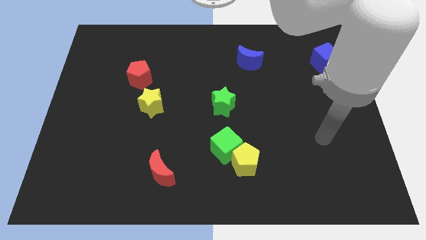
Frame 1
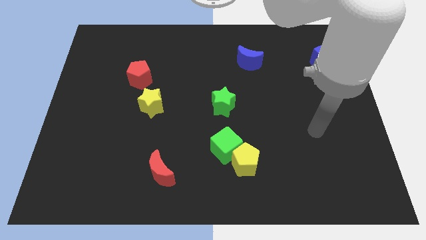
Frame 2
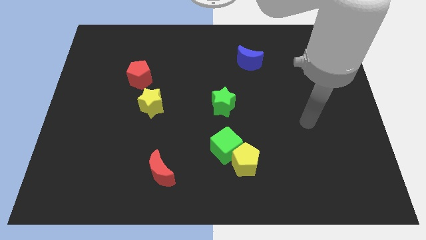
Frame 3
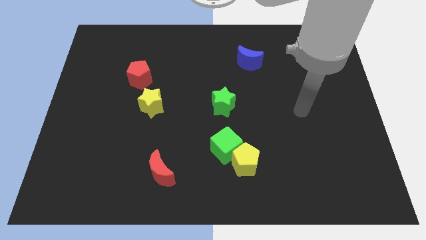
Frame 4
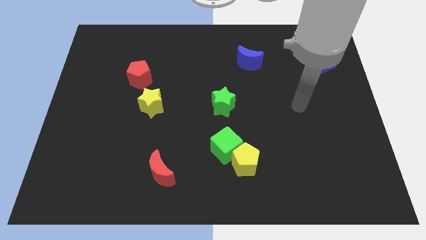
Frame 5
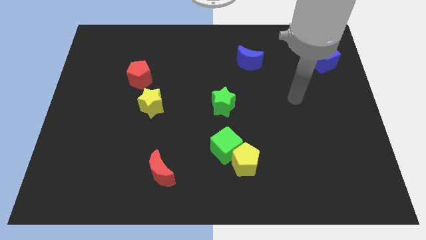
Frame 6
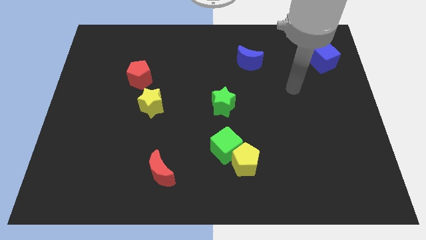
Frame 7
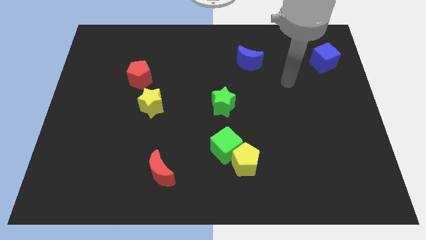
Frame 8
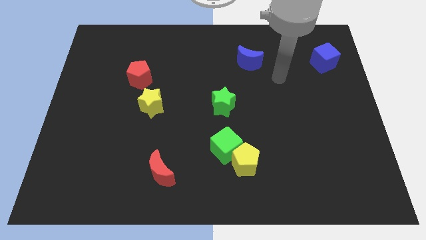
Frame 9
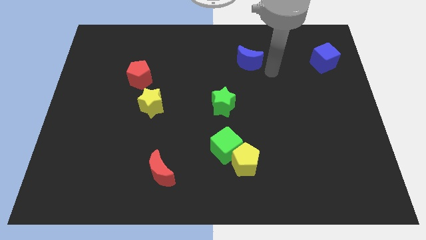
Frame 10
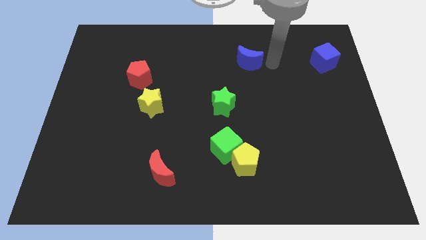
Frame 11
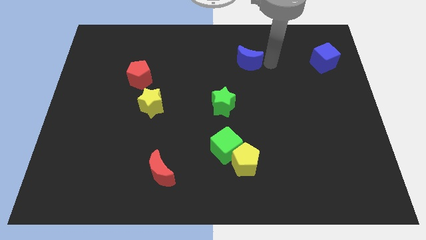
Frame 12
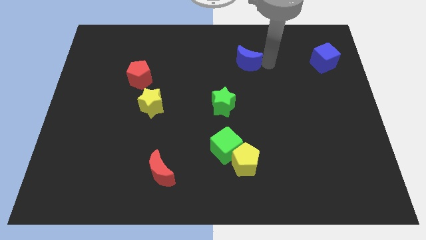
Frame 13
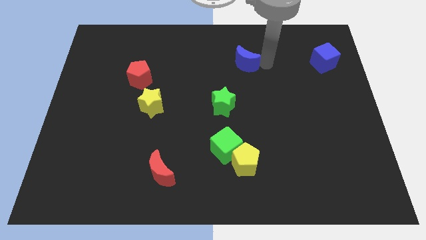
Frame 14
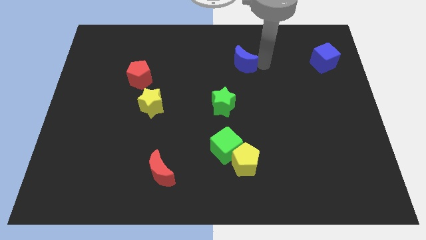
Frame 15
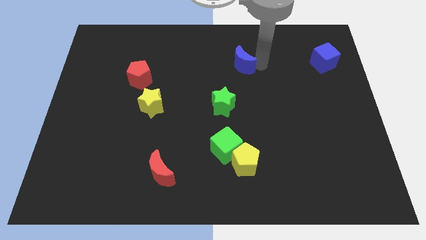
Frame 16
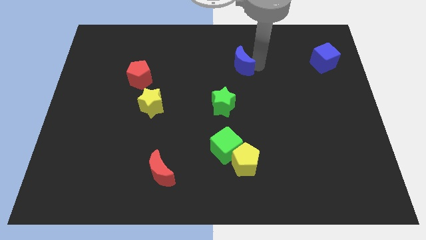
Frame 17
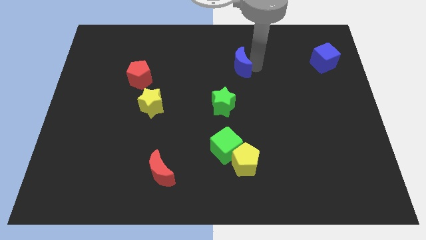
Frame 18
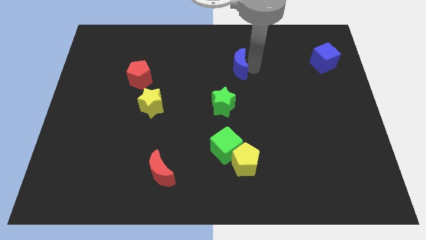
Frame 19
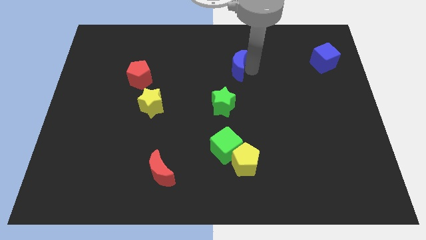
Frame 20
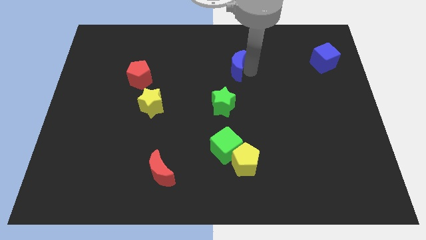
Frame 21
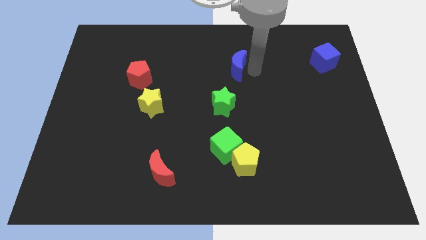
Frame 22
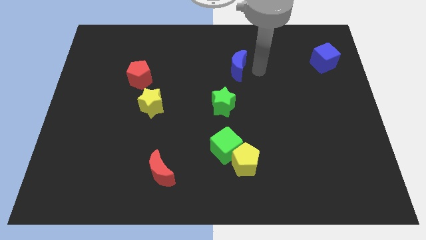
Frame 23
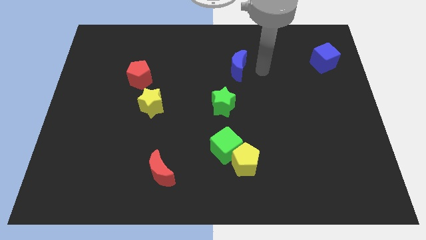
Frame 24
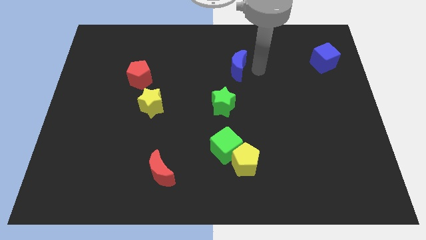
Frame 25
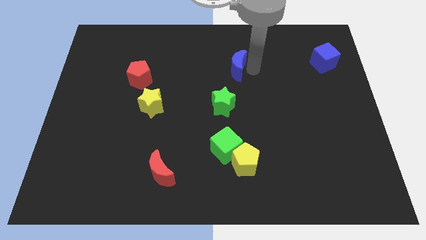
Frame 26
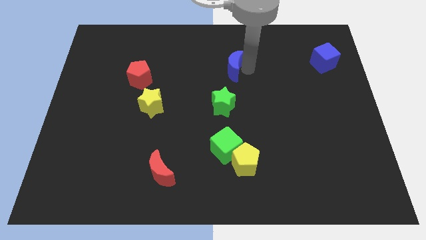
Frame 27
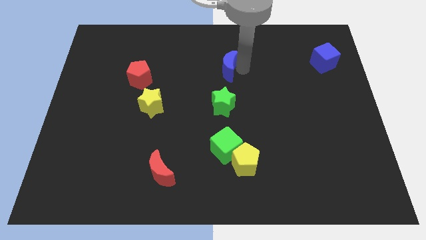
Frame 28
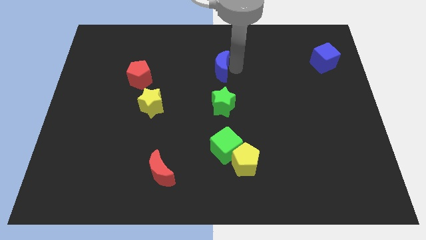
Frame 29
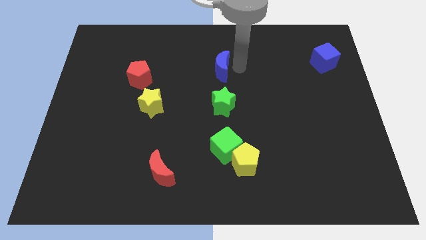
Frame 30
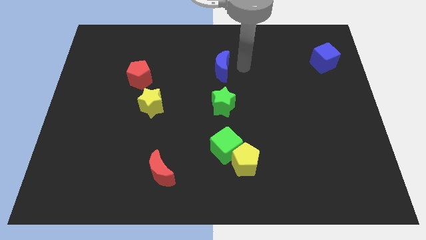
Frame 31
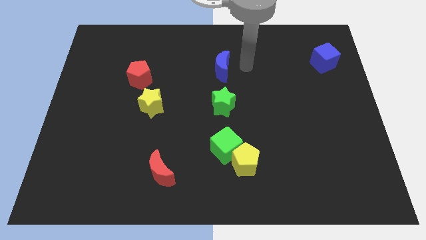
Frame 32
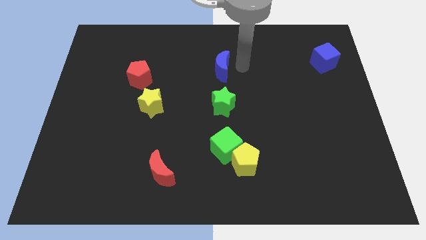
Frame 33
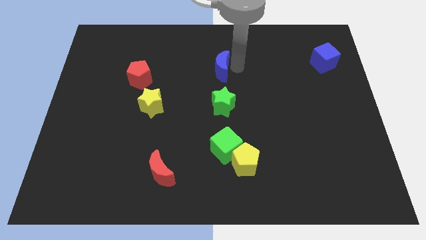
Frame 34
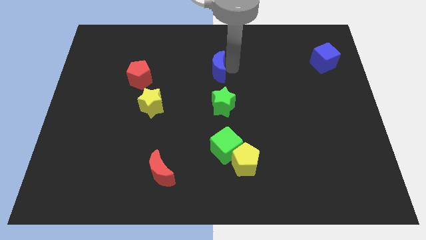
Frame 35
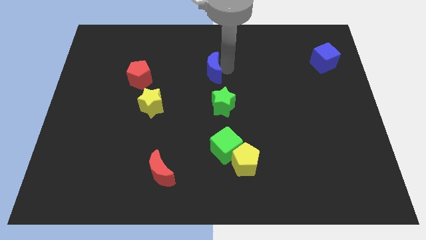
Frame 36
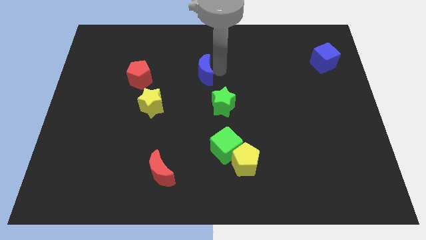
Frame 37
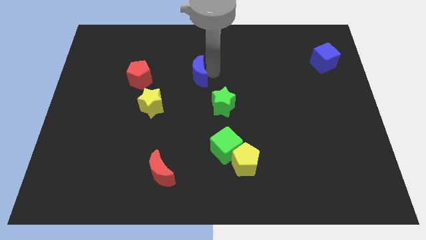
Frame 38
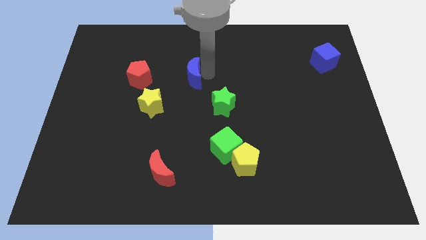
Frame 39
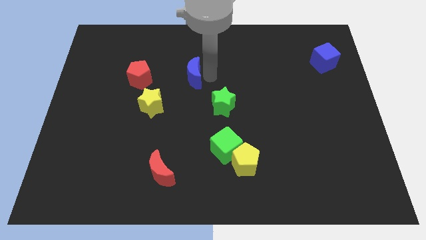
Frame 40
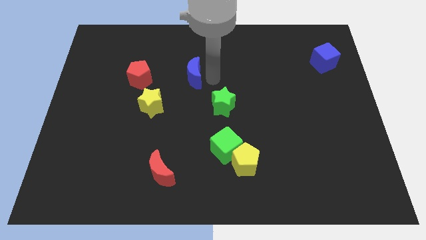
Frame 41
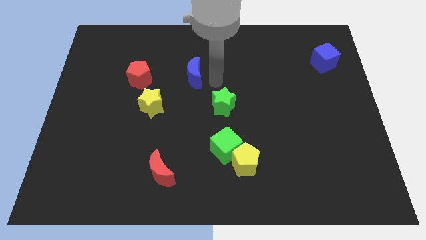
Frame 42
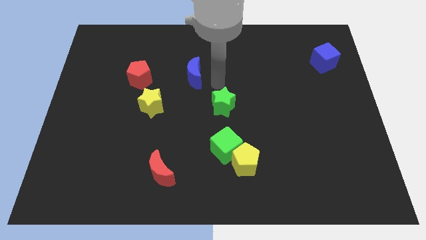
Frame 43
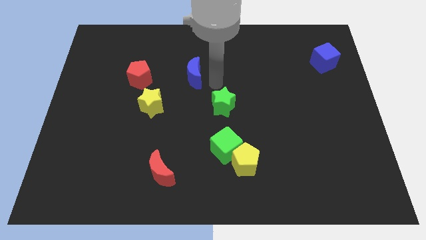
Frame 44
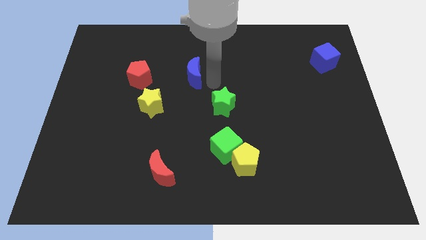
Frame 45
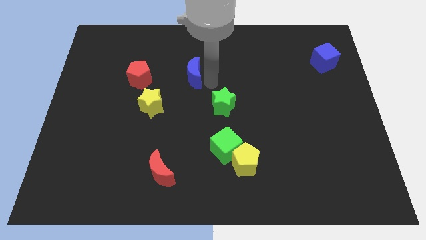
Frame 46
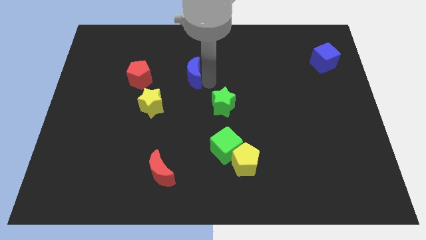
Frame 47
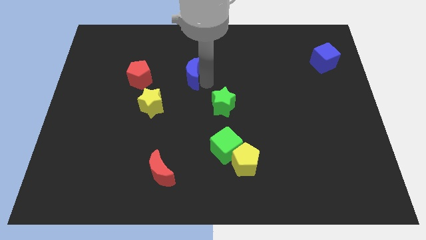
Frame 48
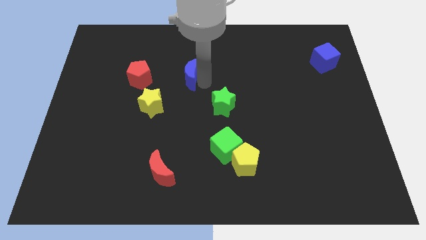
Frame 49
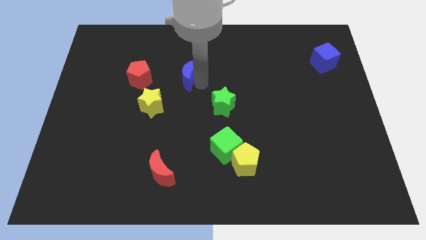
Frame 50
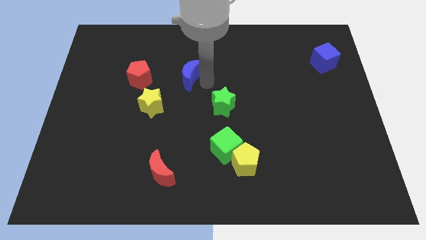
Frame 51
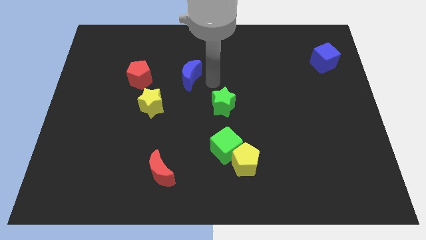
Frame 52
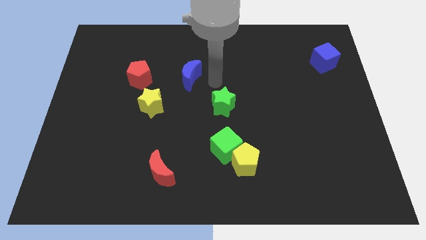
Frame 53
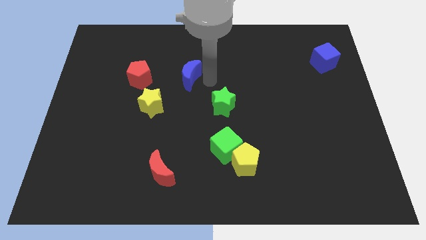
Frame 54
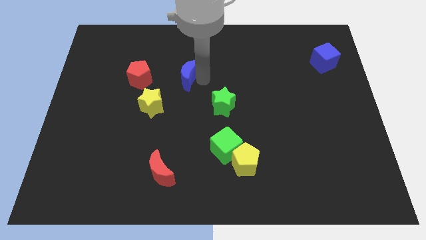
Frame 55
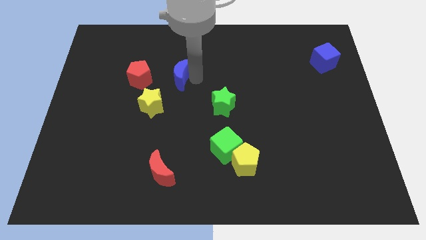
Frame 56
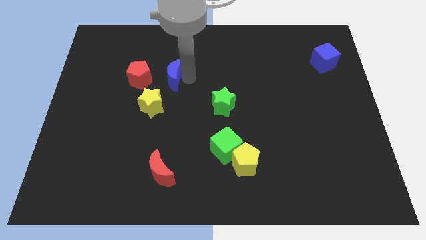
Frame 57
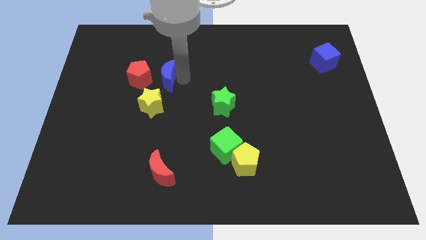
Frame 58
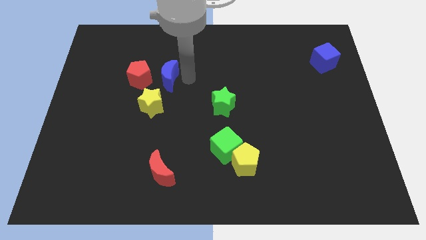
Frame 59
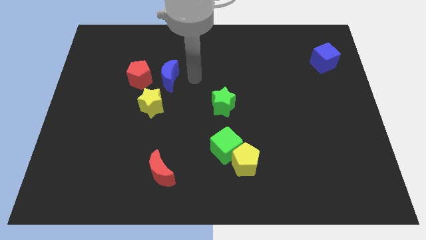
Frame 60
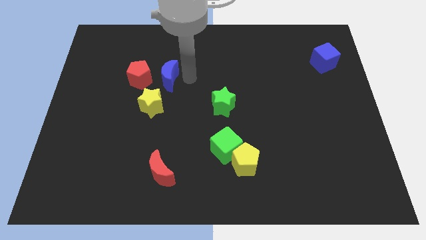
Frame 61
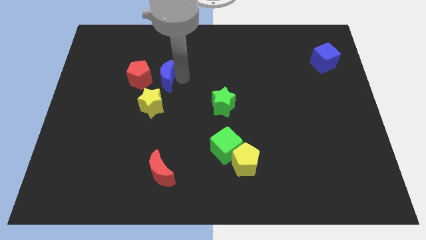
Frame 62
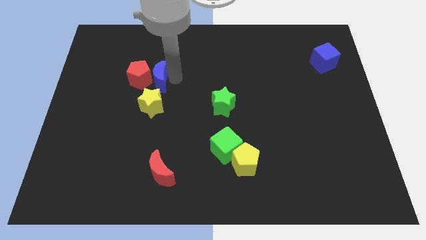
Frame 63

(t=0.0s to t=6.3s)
move the blue moon to the red pentagon
